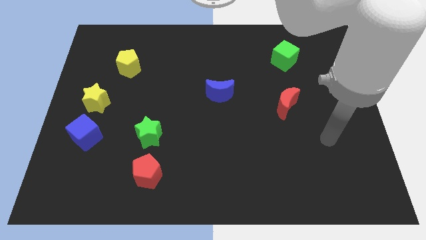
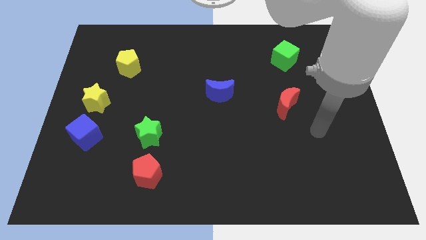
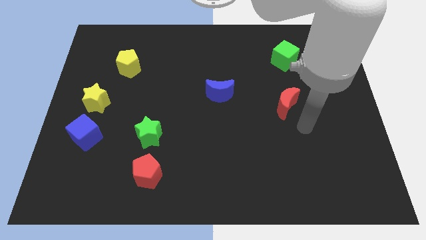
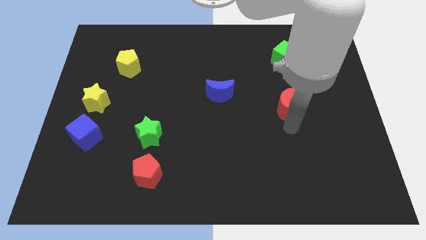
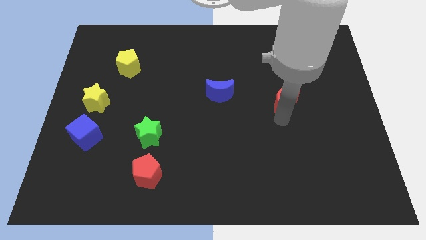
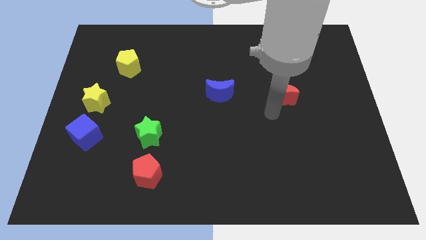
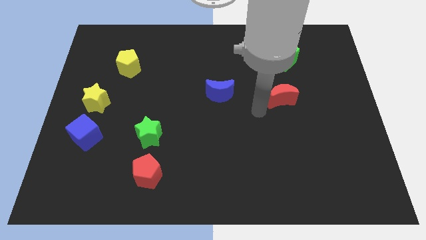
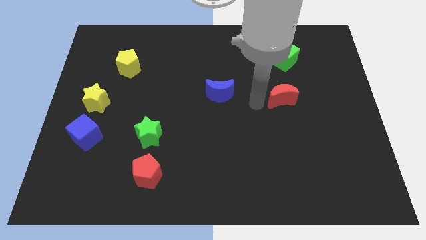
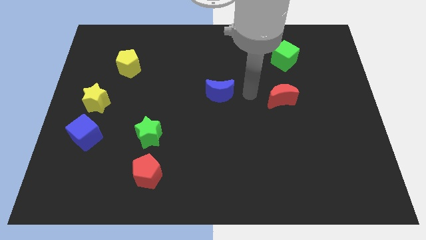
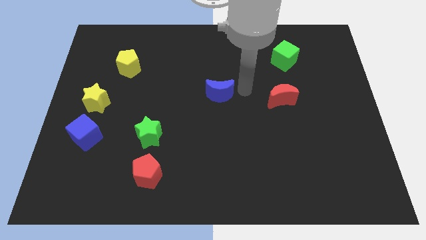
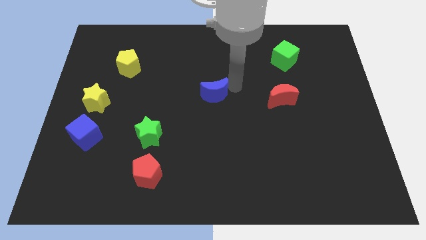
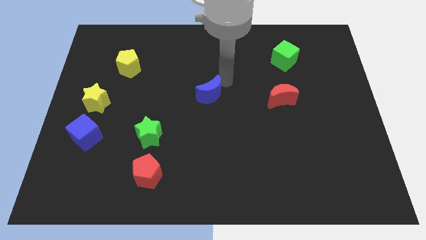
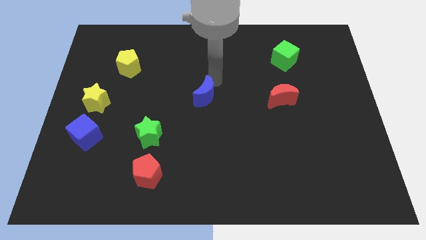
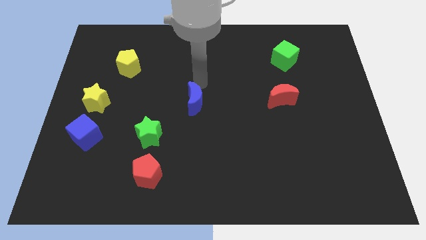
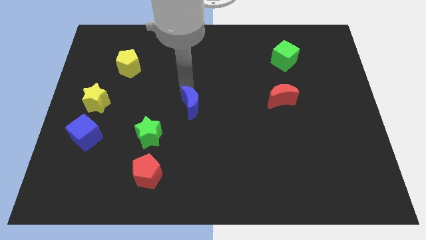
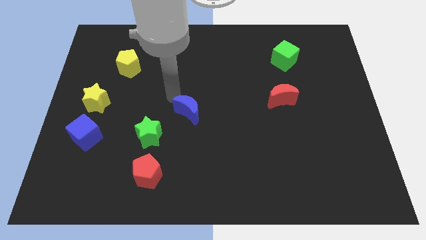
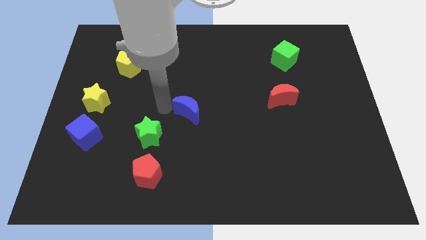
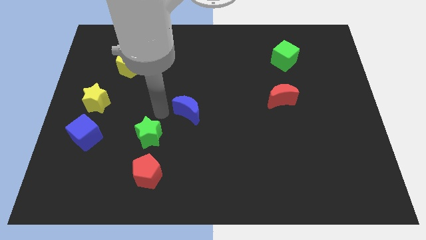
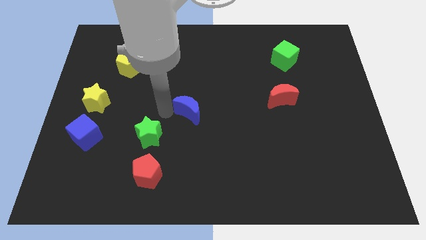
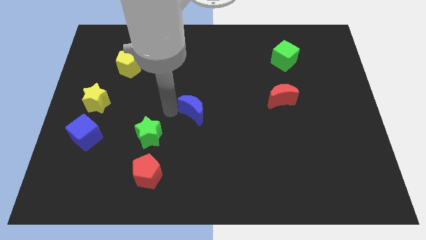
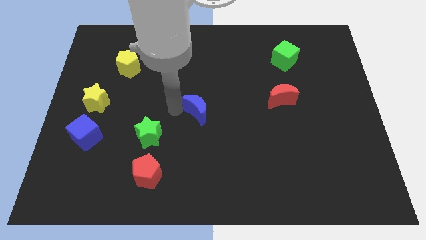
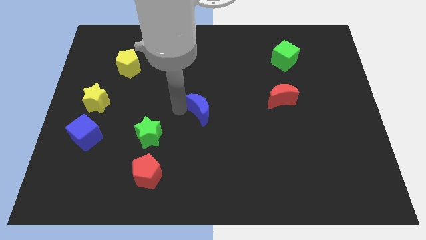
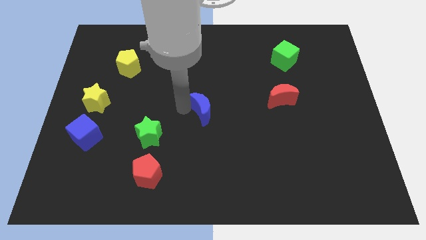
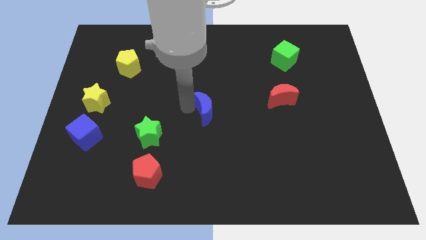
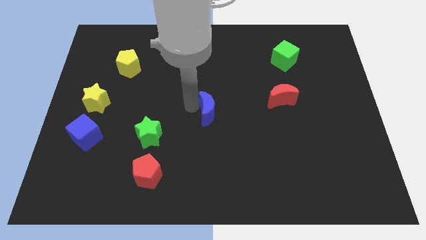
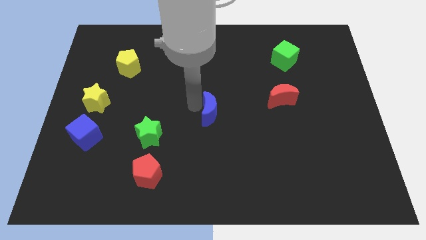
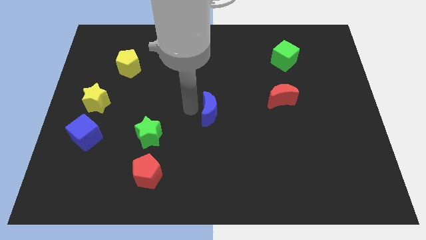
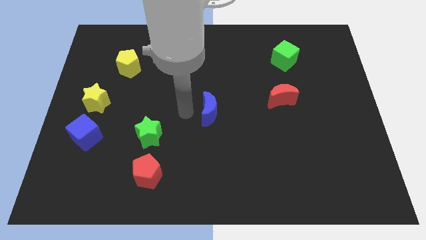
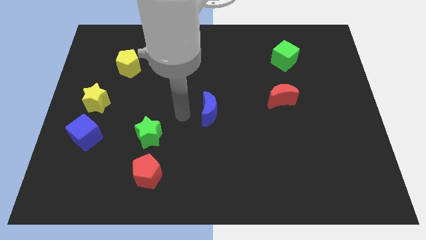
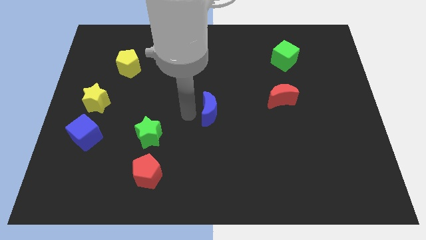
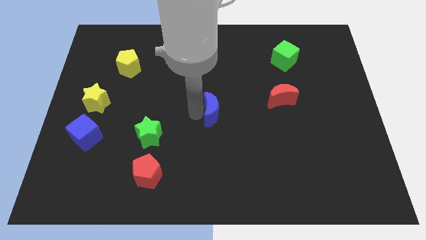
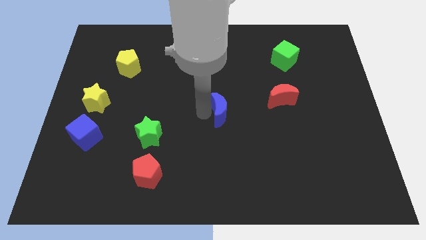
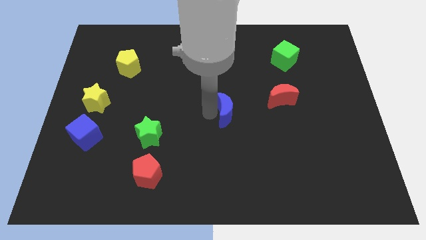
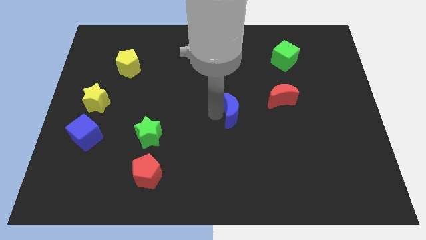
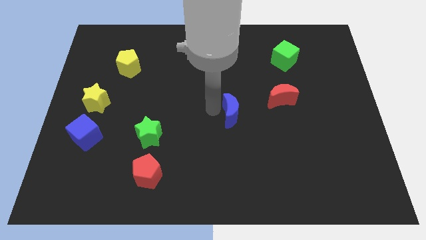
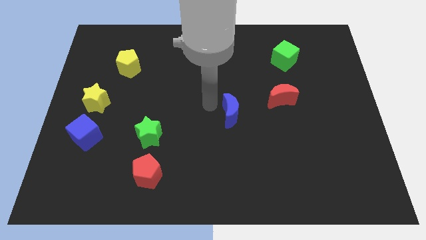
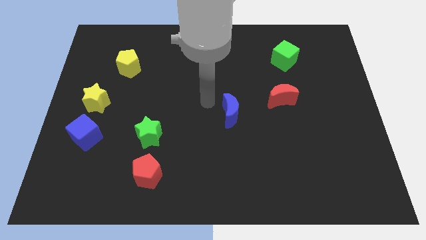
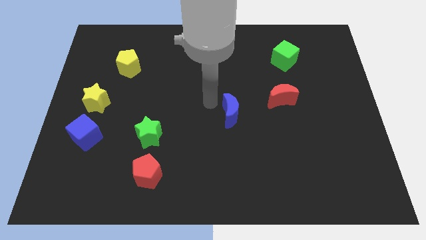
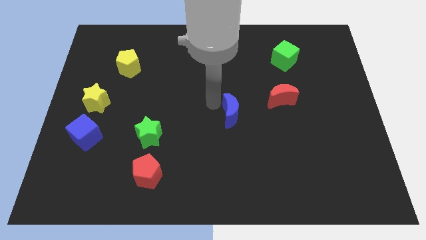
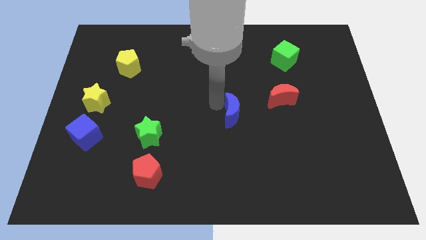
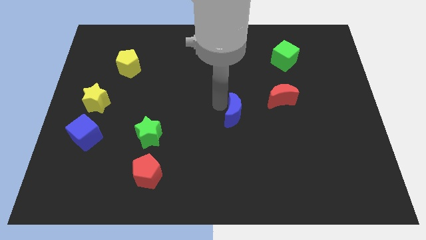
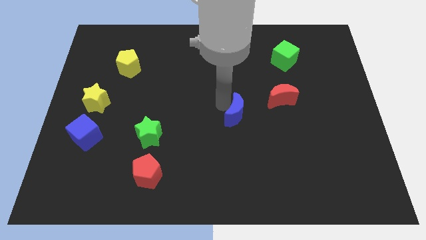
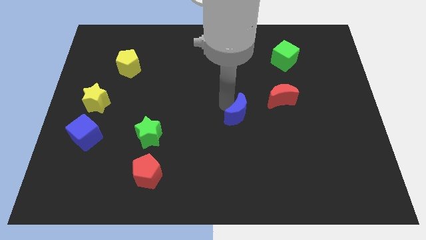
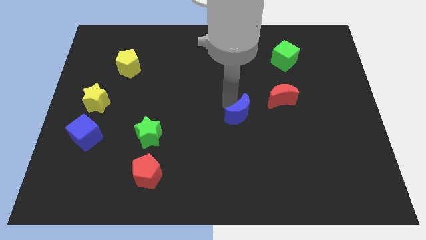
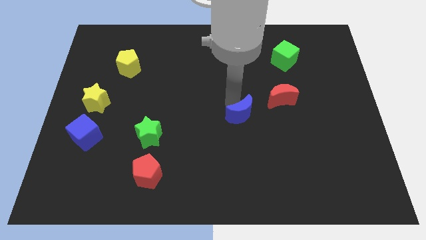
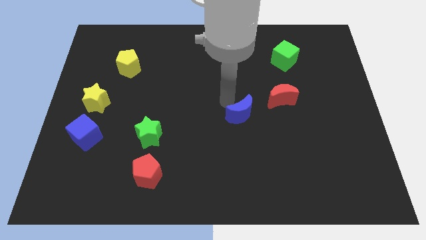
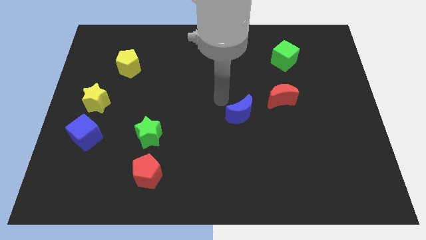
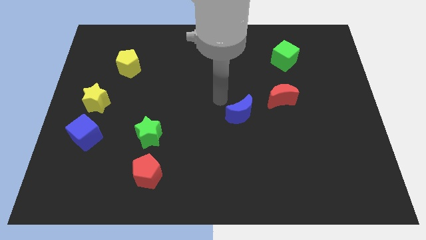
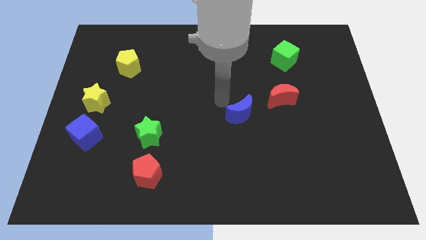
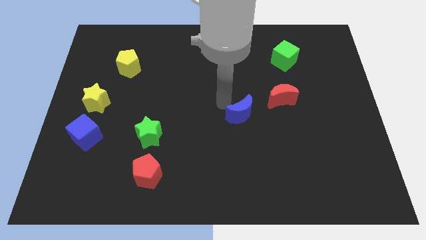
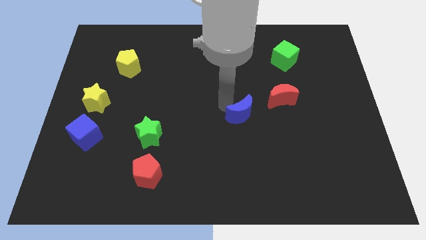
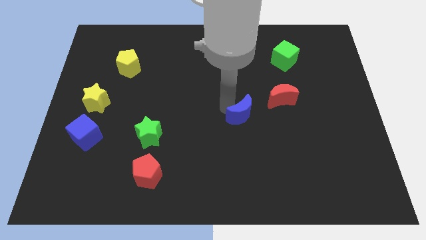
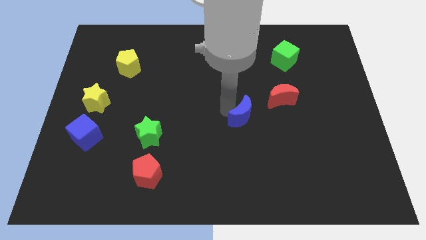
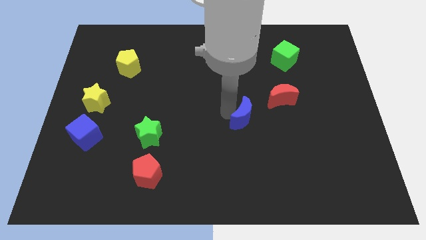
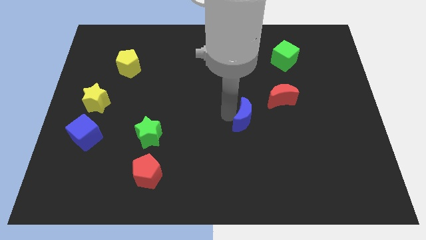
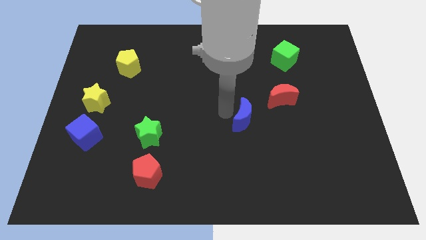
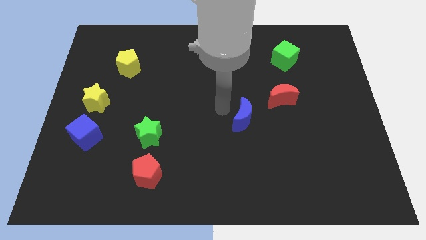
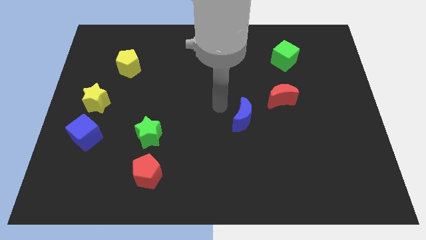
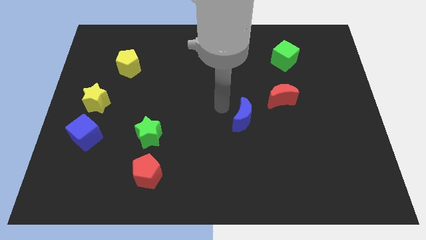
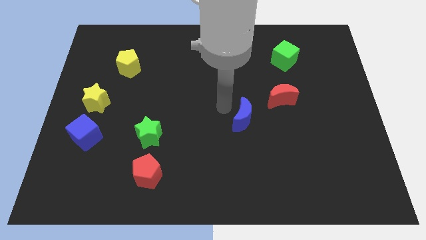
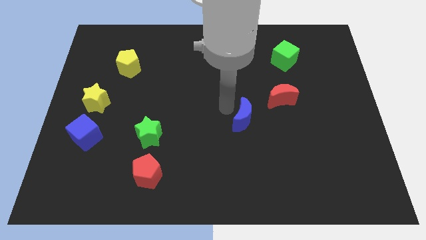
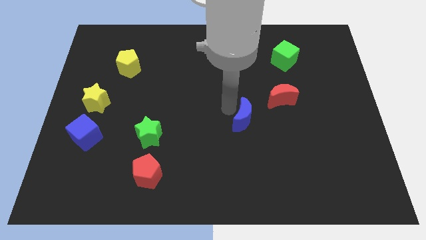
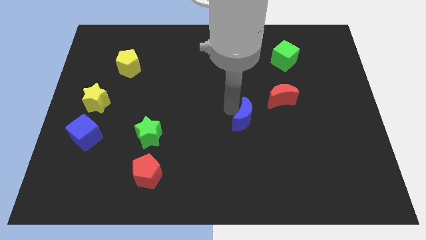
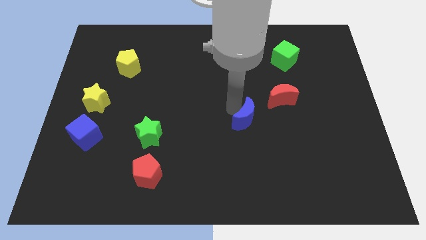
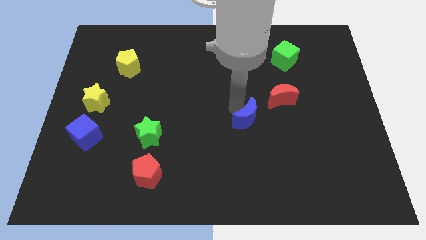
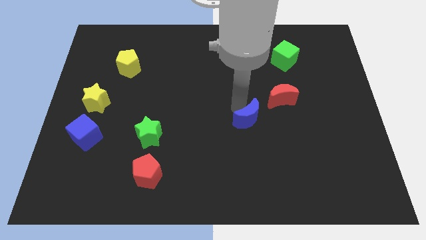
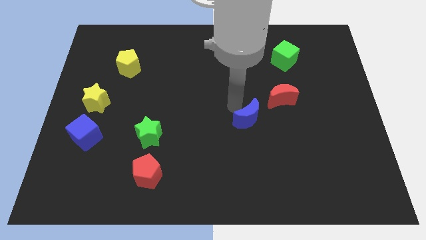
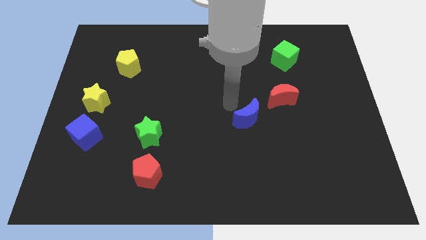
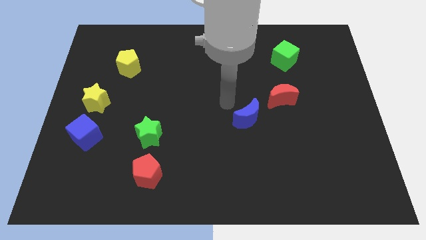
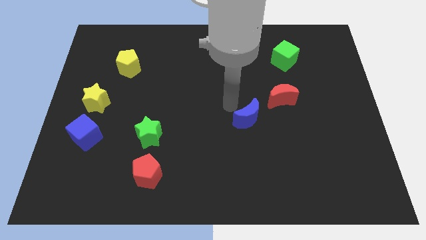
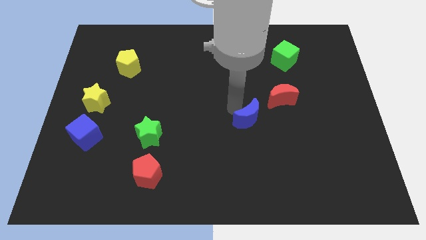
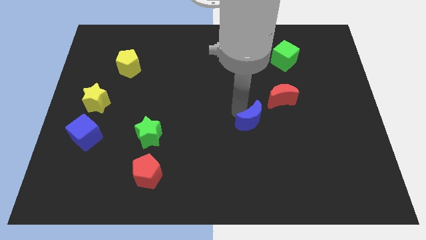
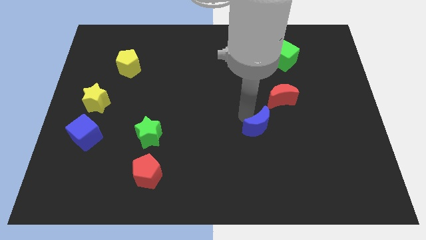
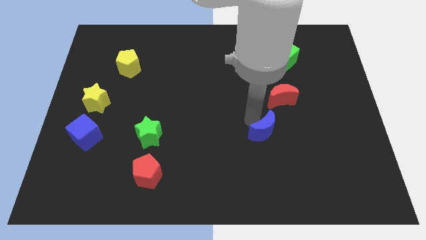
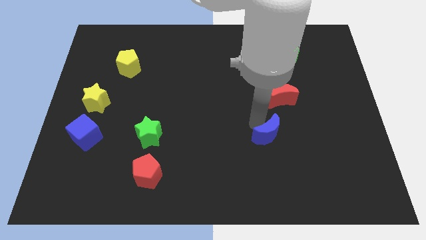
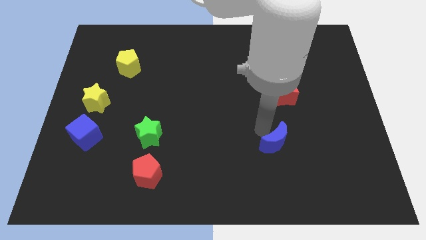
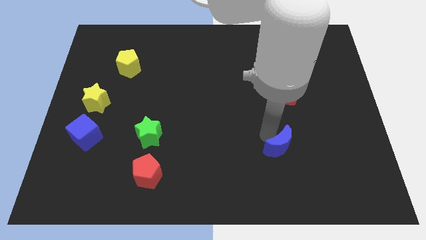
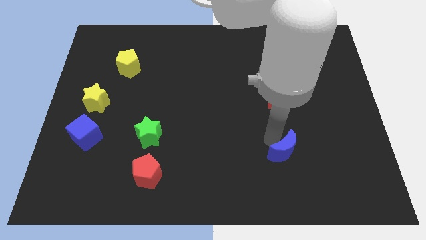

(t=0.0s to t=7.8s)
push the blue moon diagonally down and to the right
